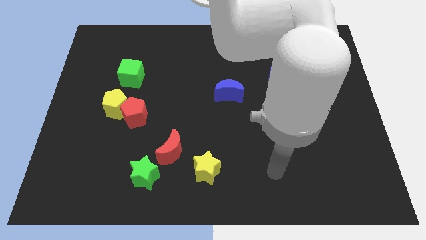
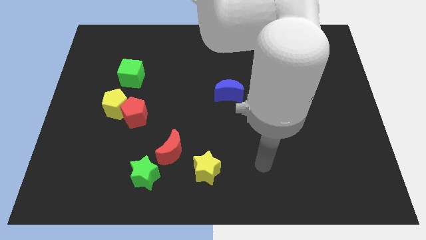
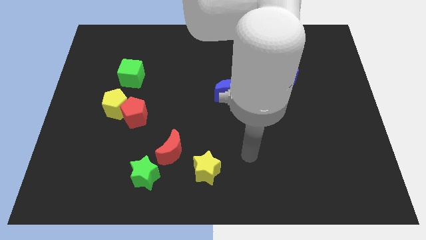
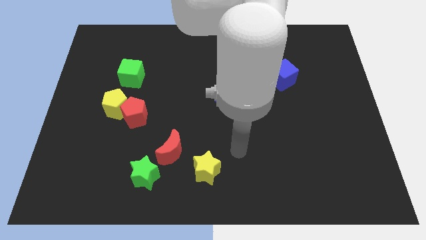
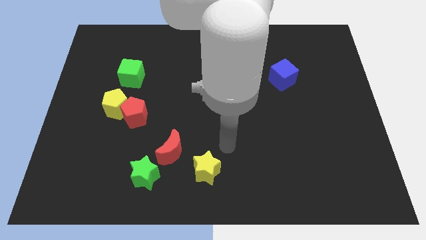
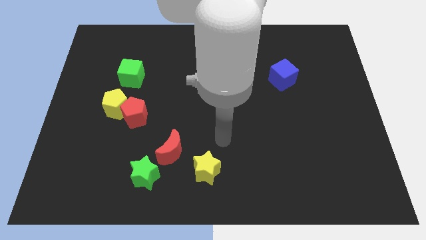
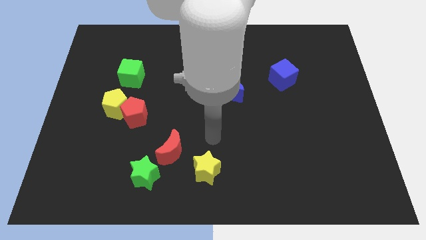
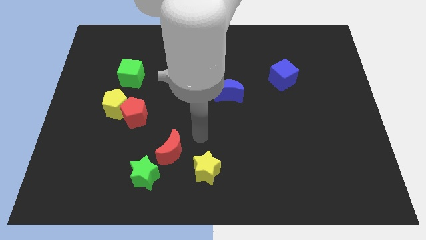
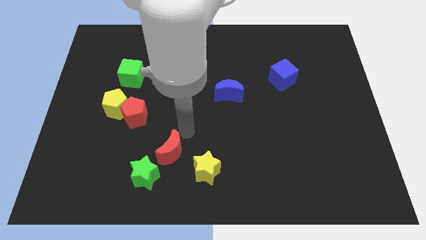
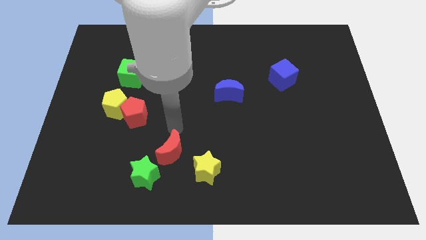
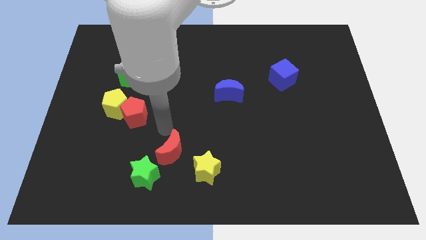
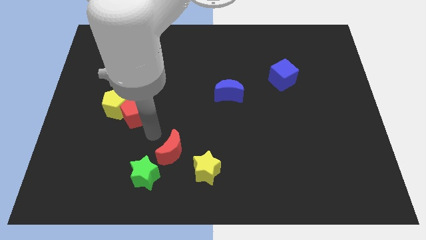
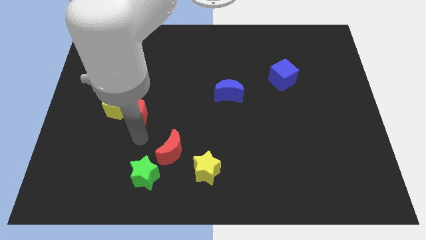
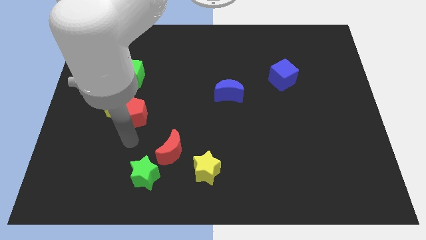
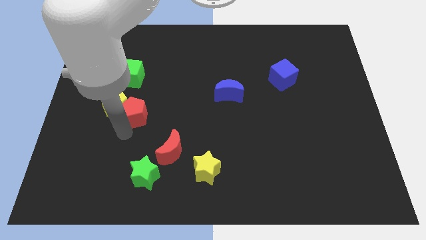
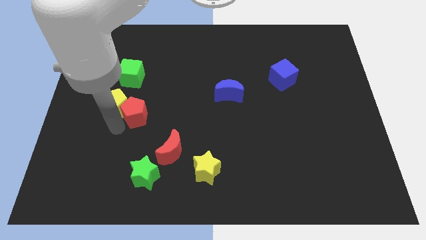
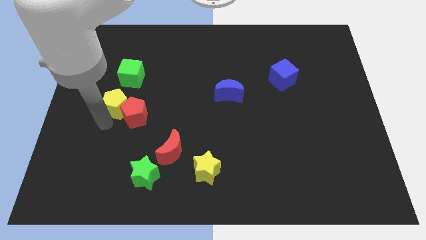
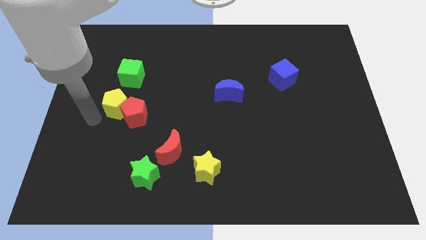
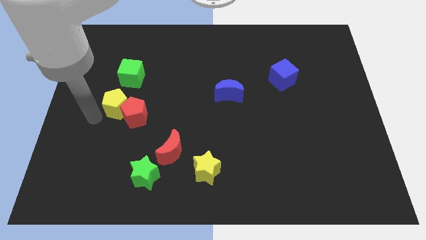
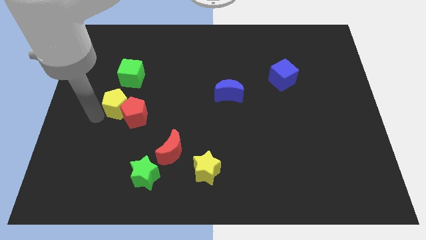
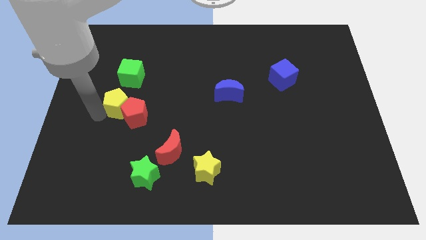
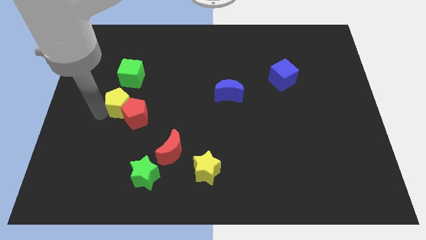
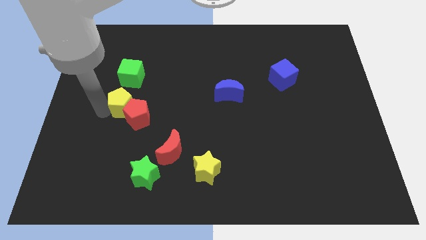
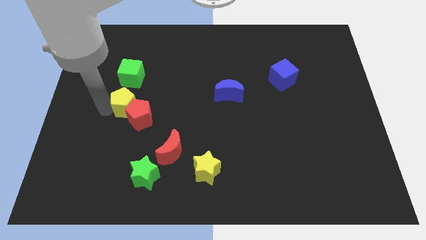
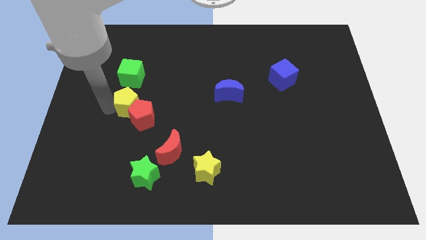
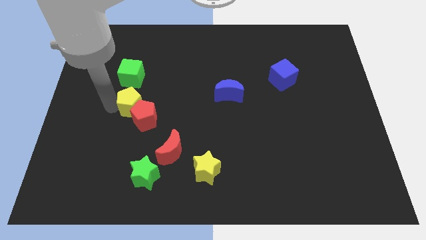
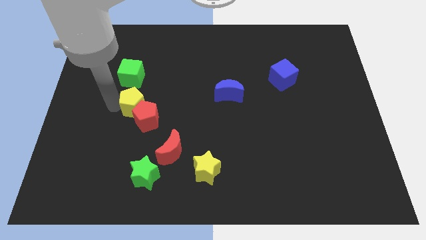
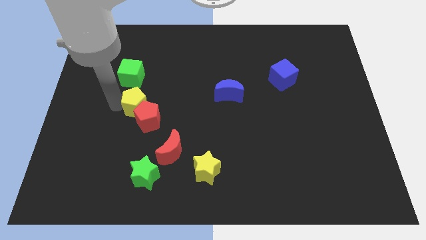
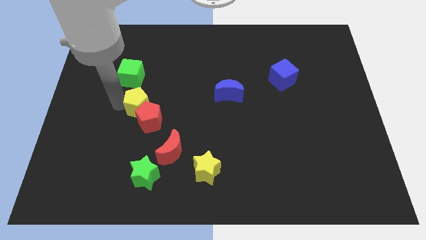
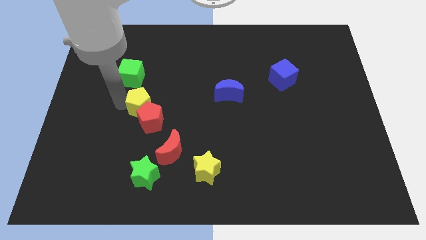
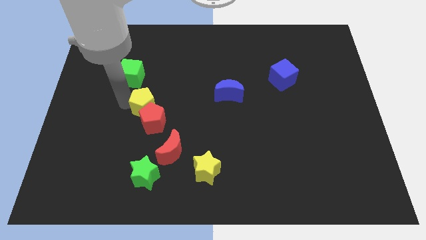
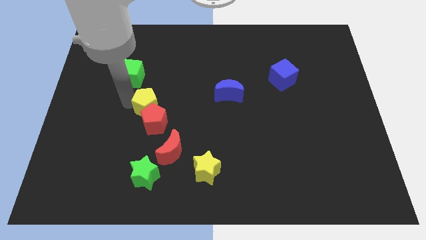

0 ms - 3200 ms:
slightly move the yellow pentagon right

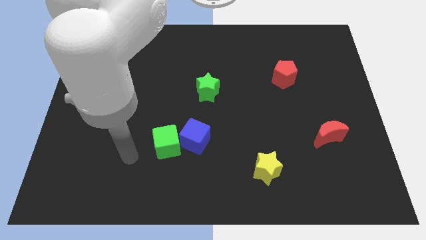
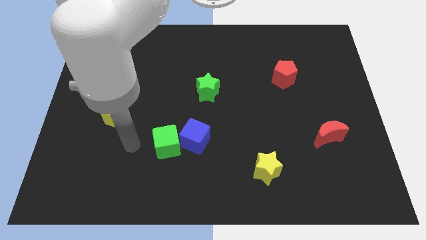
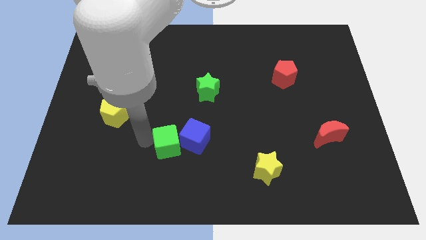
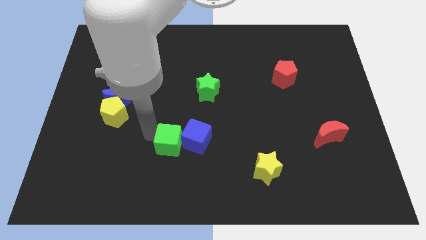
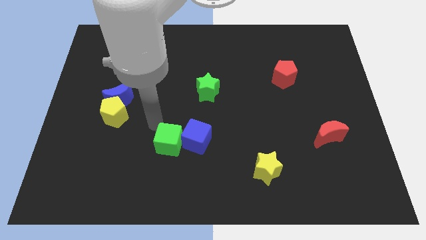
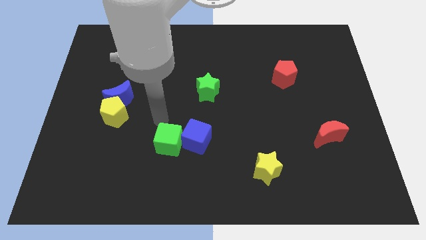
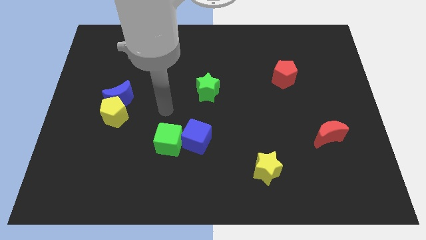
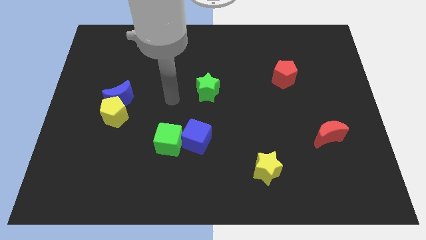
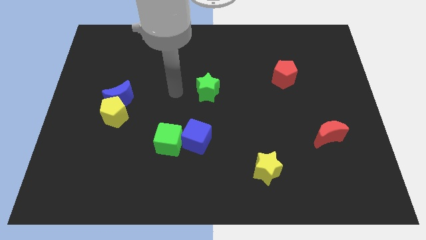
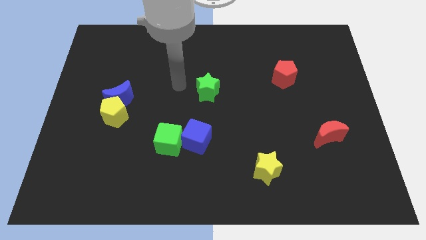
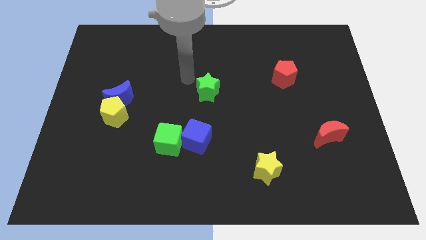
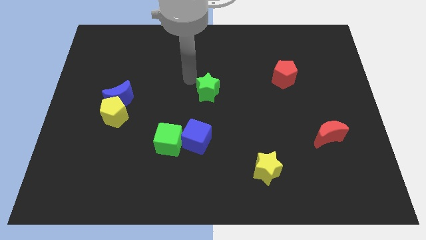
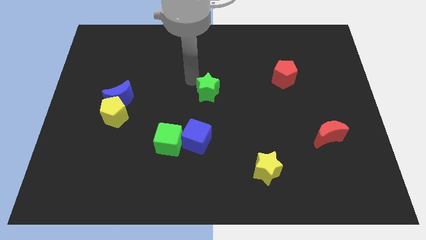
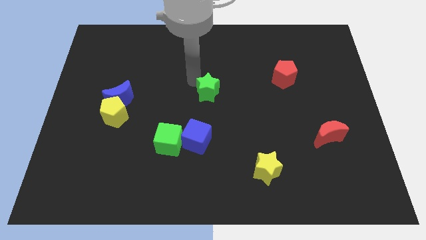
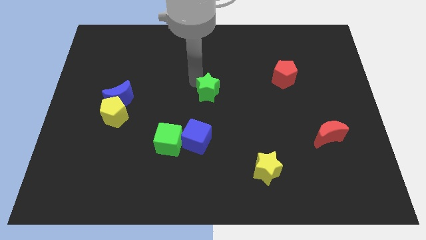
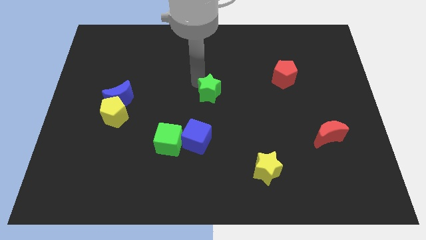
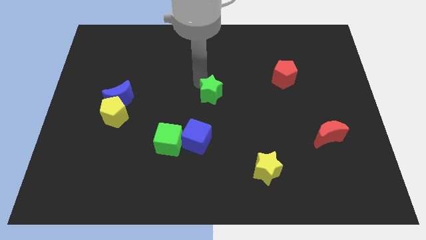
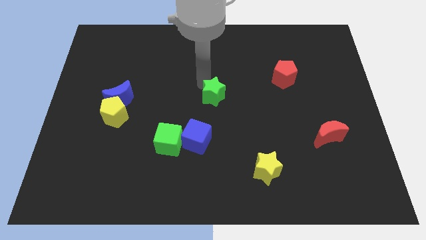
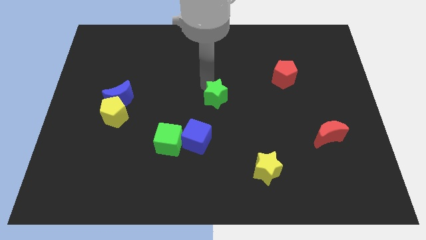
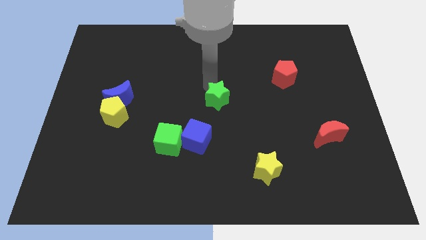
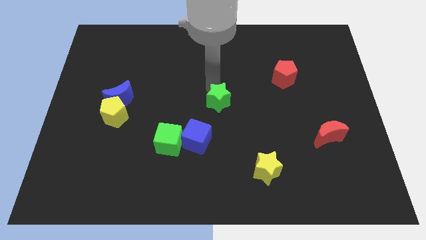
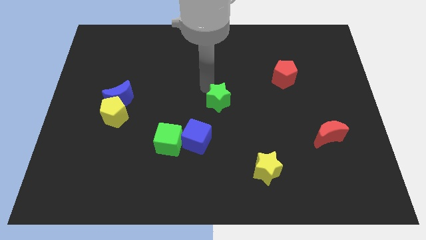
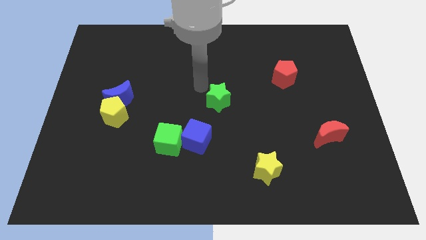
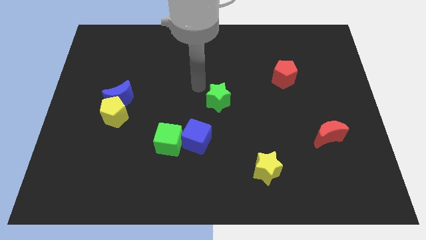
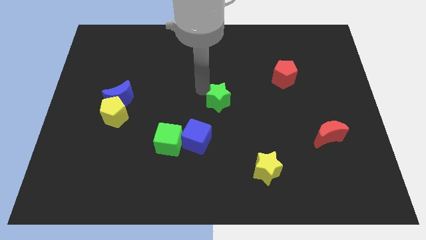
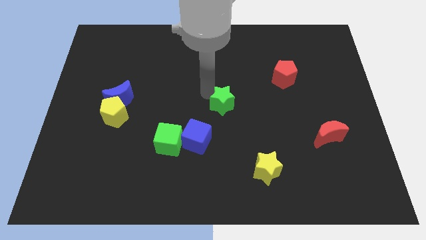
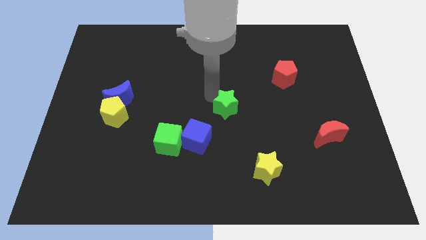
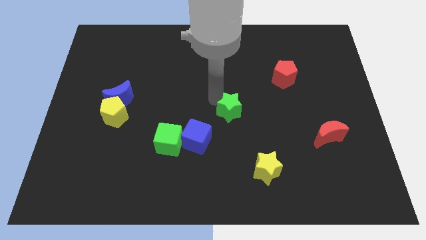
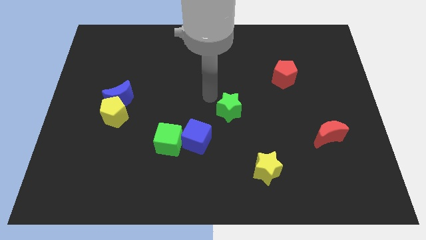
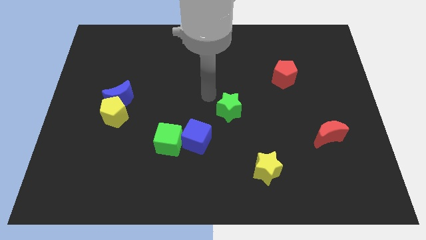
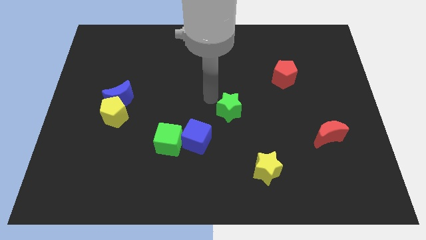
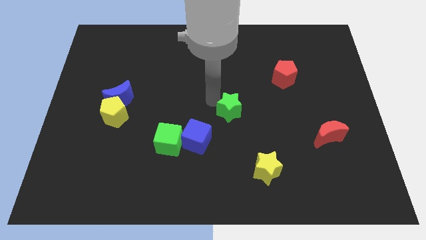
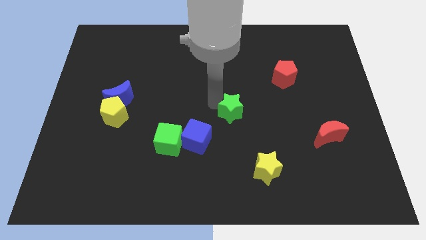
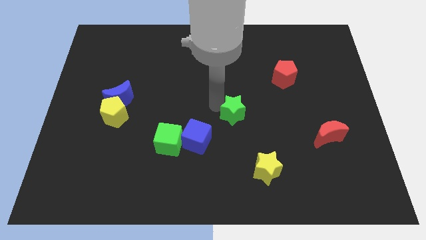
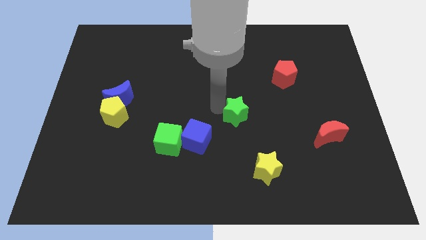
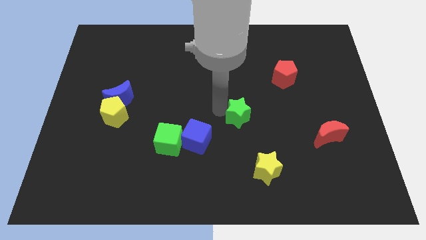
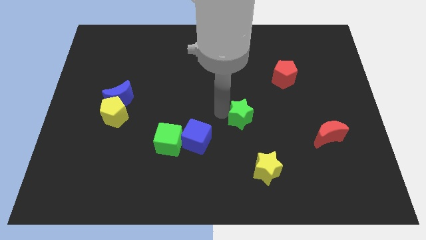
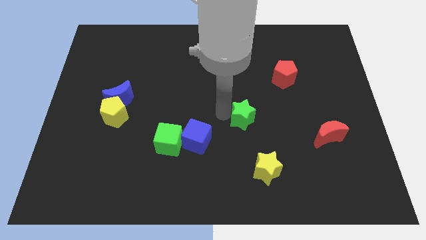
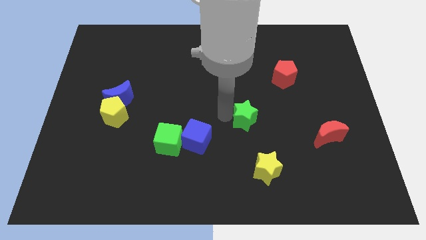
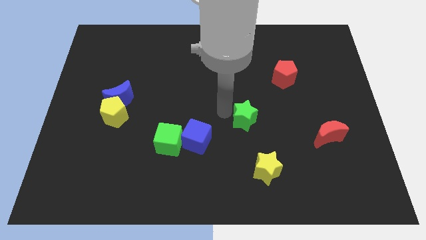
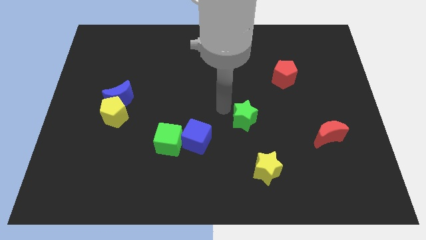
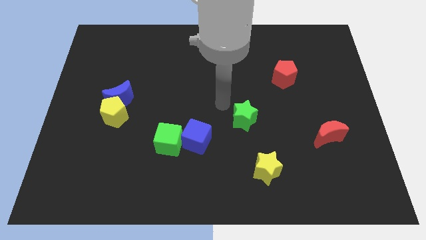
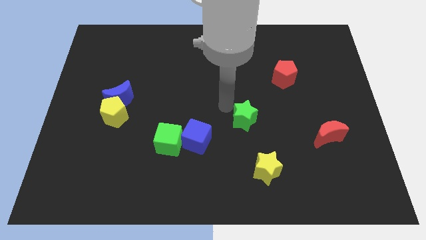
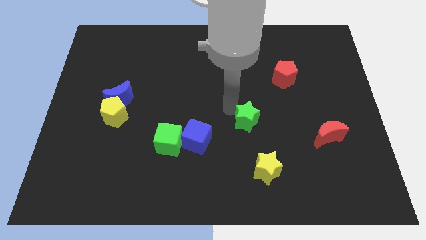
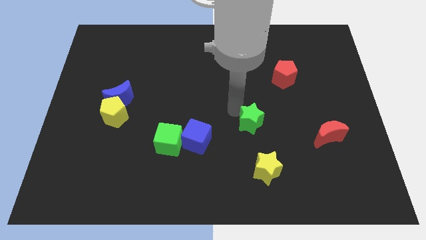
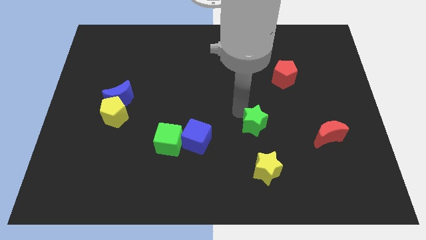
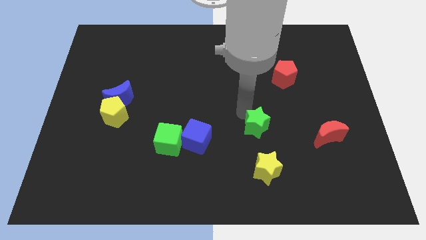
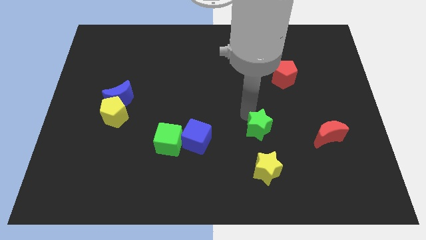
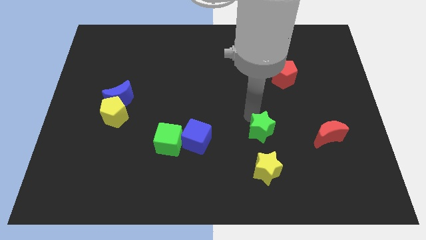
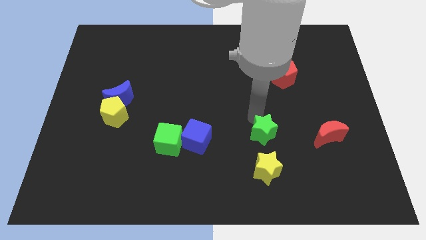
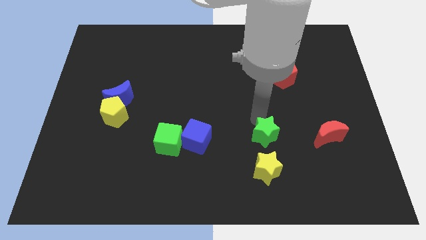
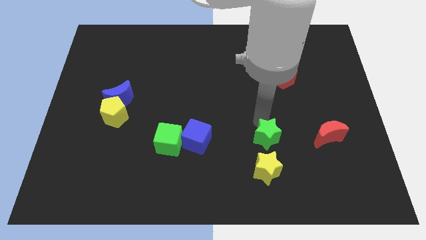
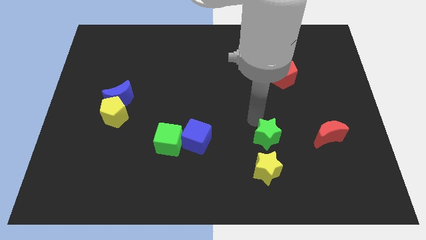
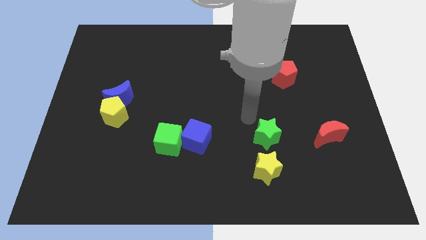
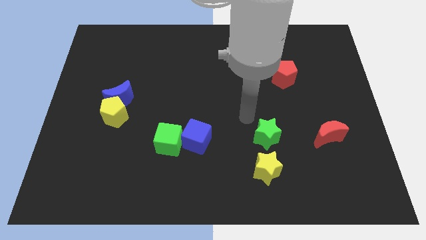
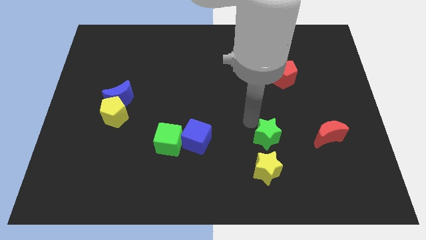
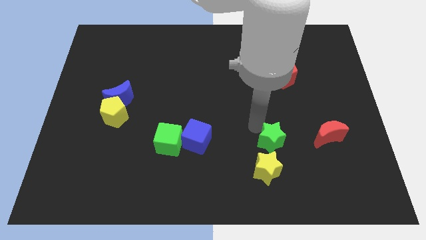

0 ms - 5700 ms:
push the green star downwards and right diagonally
